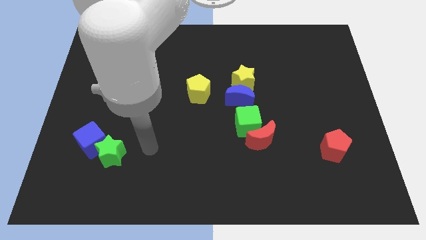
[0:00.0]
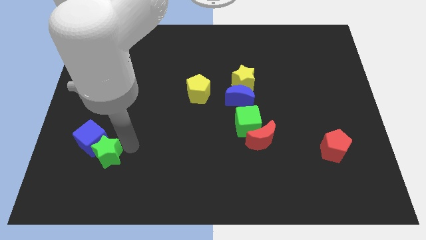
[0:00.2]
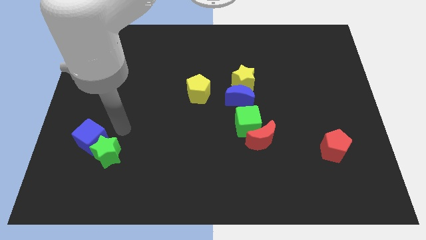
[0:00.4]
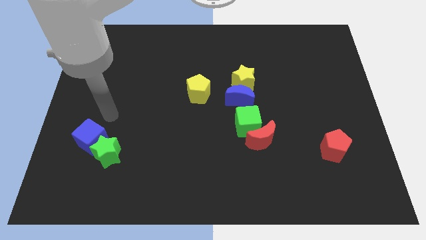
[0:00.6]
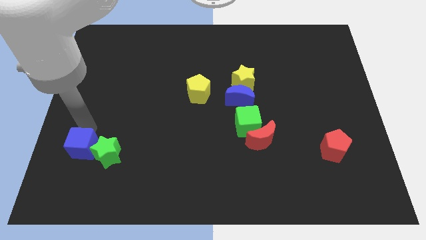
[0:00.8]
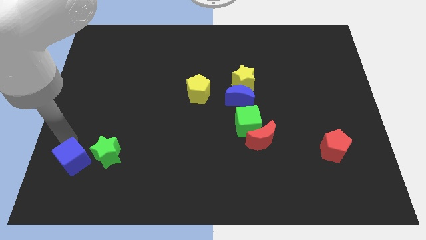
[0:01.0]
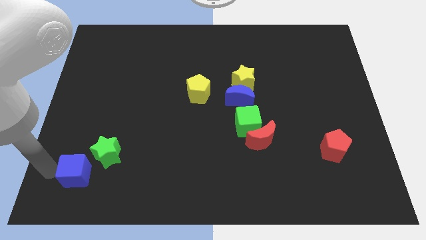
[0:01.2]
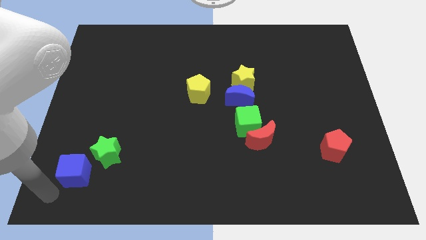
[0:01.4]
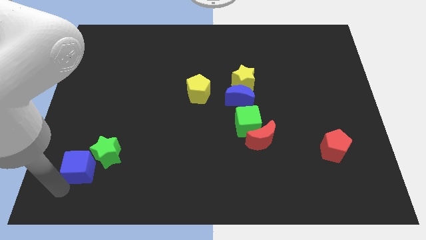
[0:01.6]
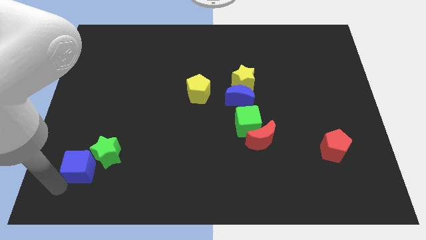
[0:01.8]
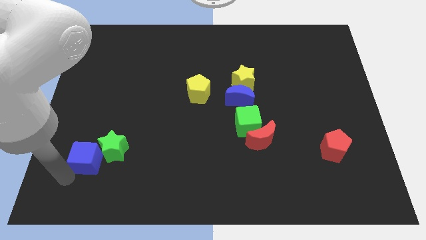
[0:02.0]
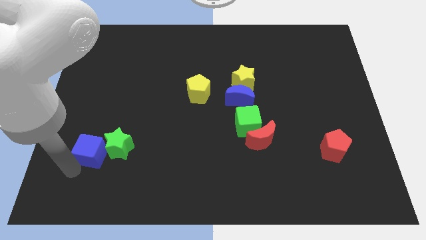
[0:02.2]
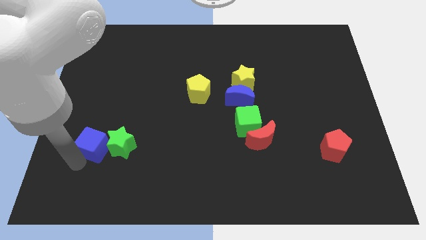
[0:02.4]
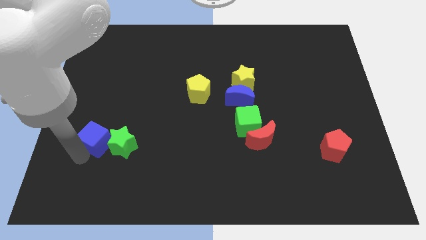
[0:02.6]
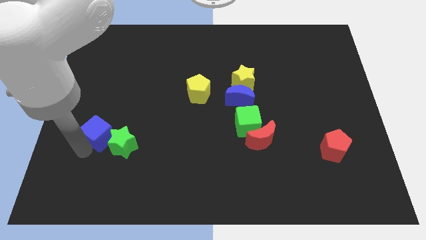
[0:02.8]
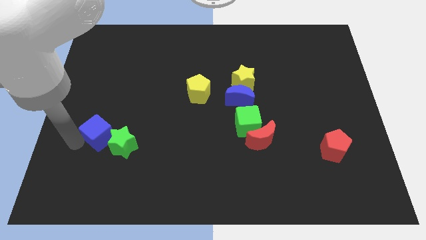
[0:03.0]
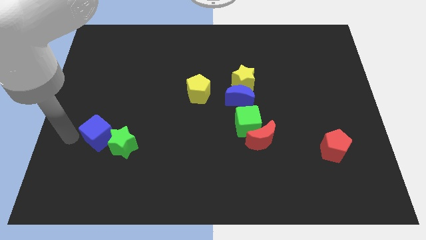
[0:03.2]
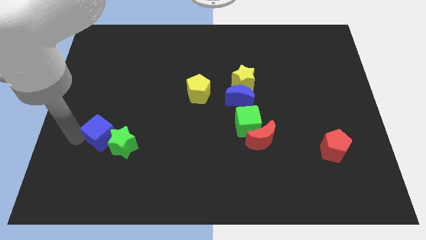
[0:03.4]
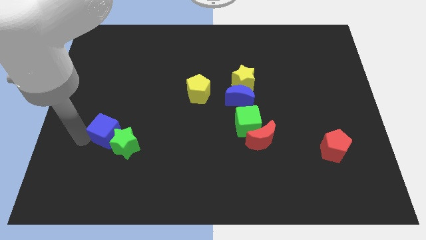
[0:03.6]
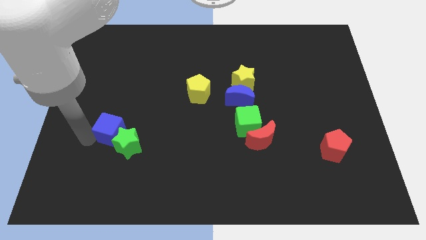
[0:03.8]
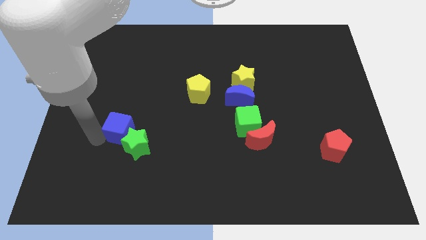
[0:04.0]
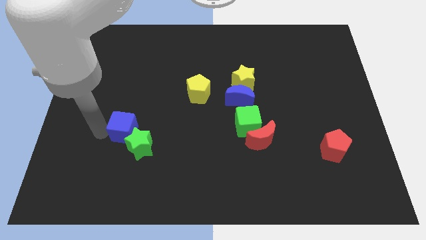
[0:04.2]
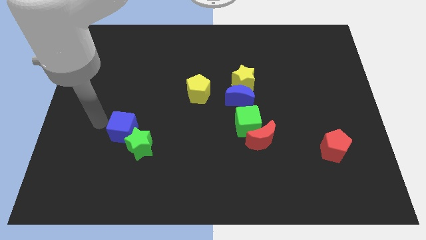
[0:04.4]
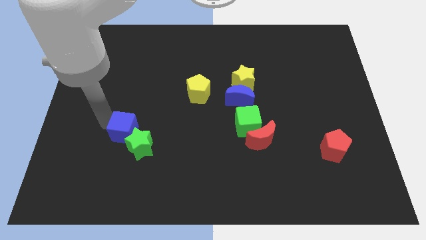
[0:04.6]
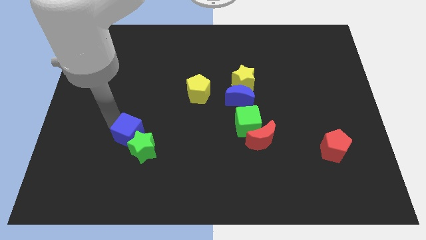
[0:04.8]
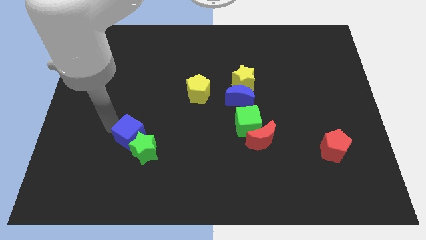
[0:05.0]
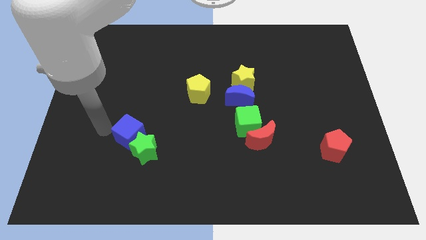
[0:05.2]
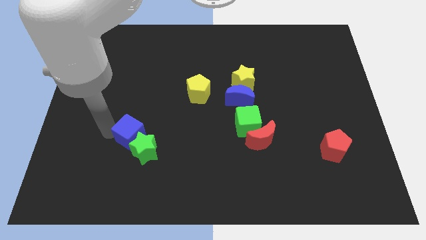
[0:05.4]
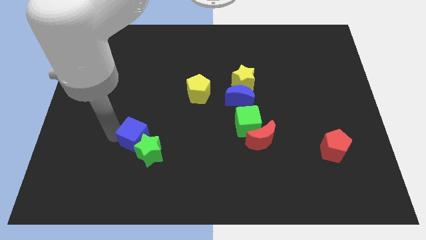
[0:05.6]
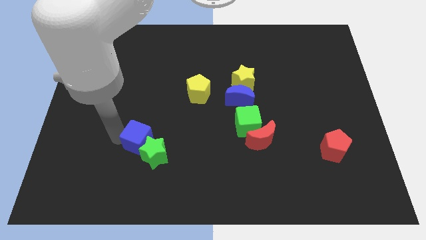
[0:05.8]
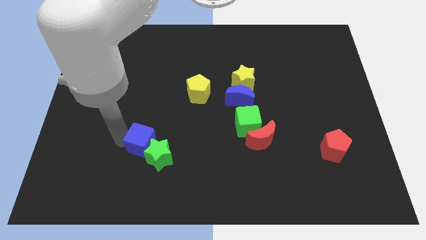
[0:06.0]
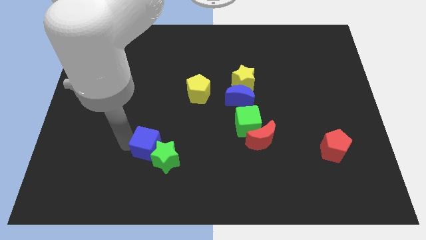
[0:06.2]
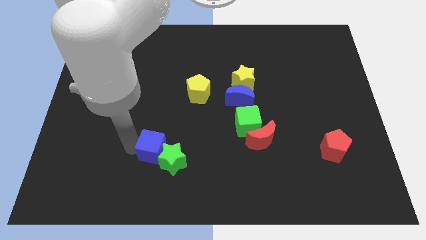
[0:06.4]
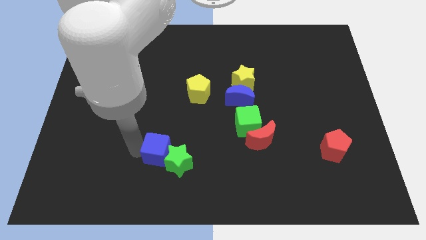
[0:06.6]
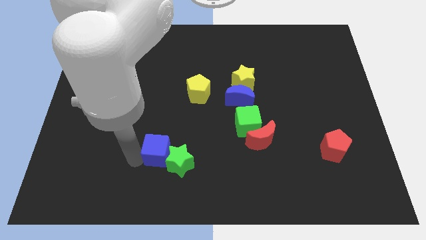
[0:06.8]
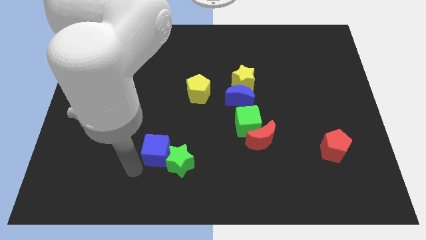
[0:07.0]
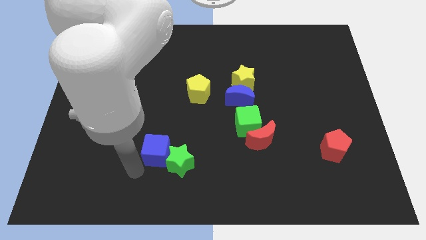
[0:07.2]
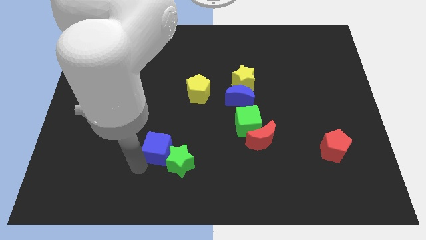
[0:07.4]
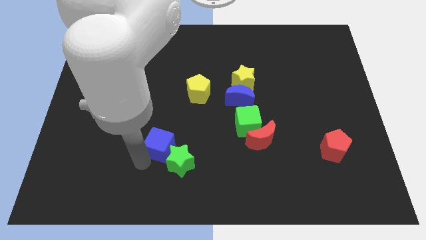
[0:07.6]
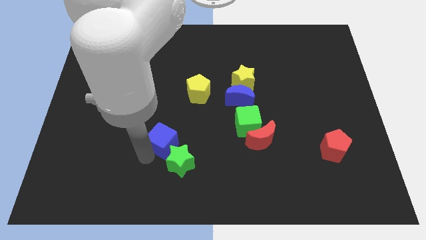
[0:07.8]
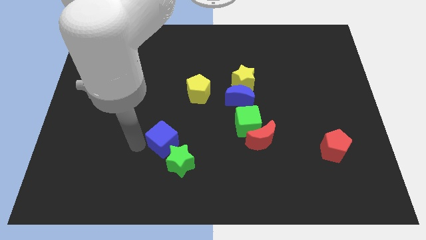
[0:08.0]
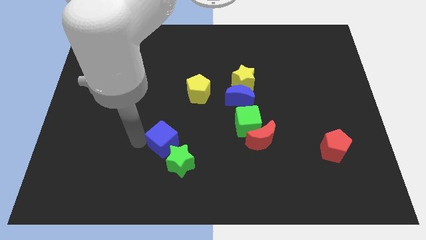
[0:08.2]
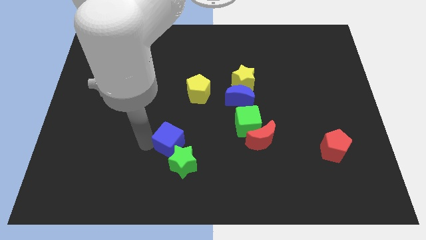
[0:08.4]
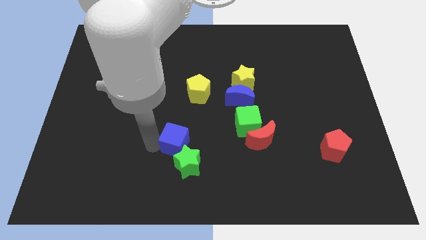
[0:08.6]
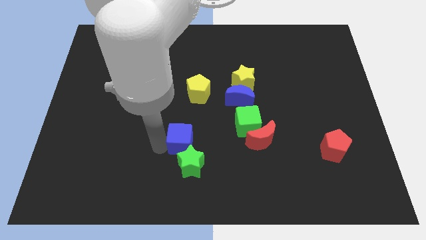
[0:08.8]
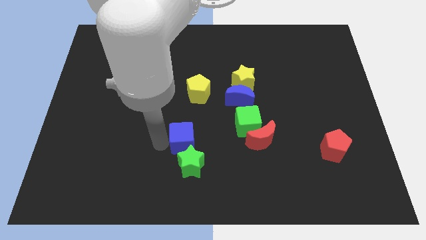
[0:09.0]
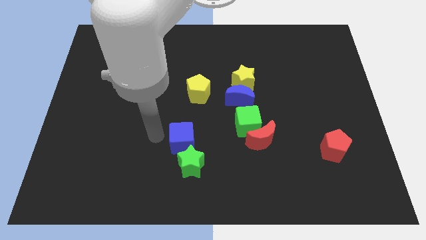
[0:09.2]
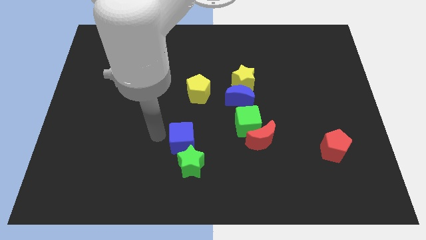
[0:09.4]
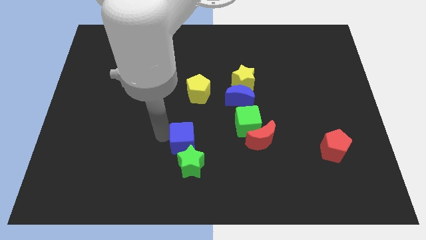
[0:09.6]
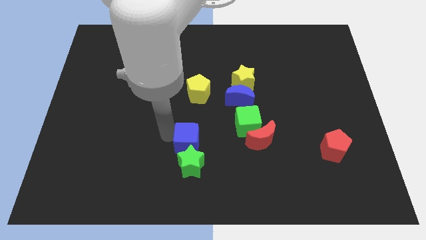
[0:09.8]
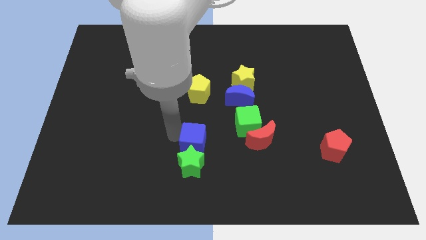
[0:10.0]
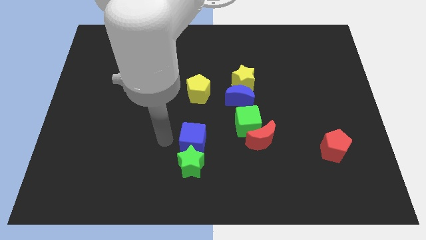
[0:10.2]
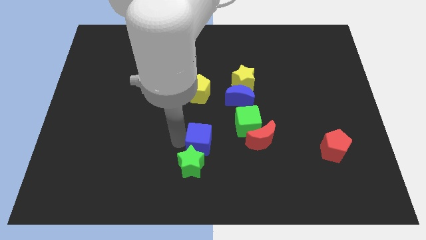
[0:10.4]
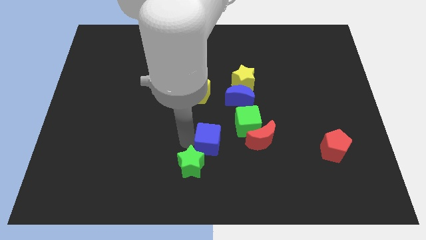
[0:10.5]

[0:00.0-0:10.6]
put the blue cube diagonally down and to the left of the green cube

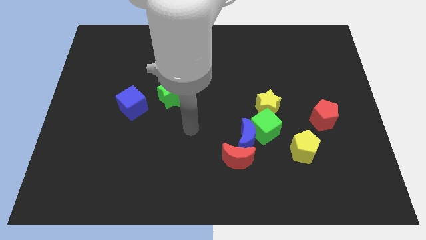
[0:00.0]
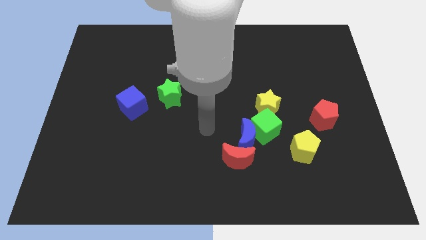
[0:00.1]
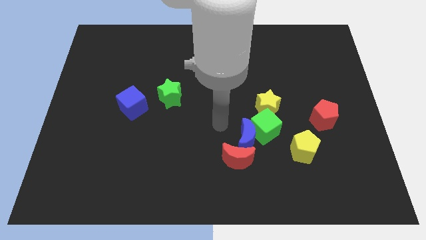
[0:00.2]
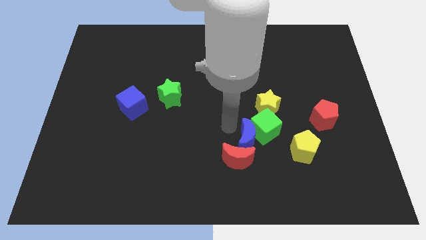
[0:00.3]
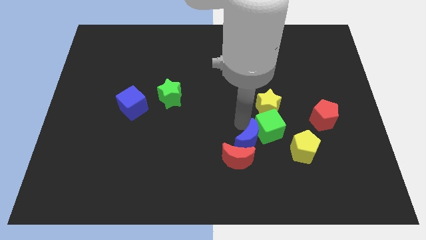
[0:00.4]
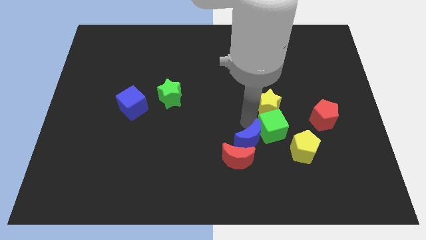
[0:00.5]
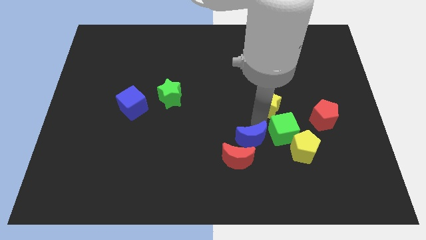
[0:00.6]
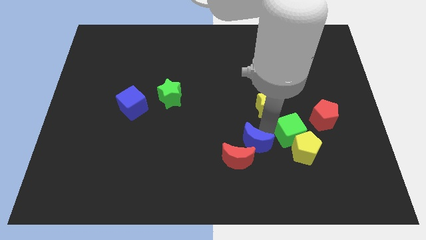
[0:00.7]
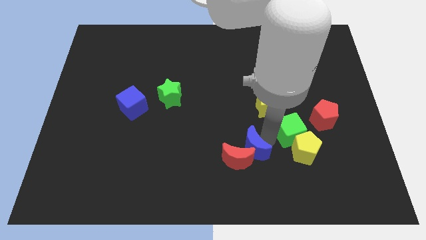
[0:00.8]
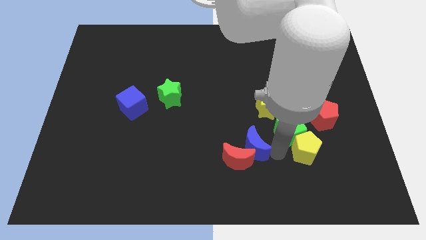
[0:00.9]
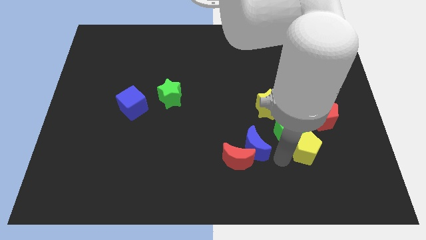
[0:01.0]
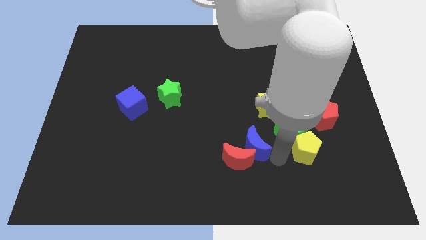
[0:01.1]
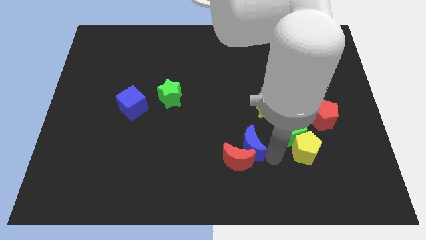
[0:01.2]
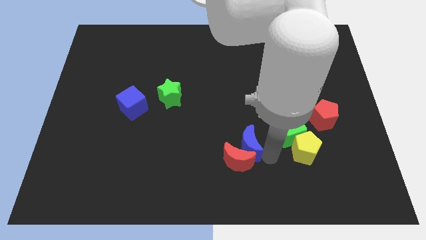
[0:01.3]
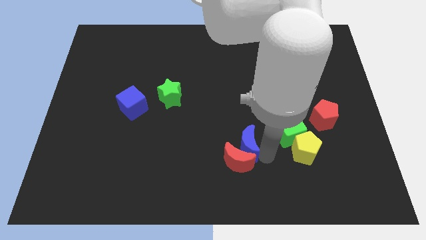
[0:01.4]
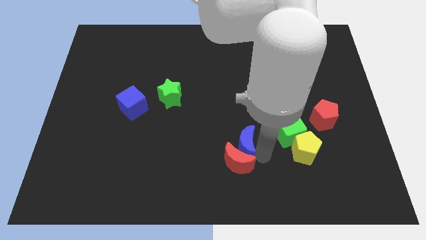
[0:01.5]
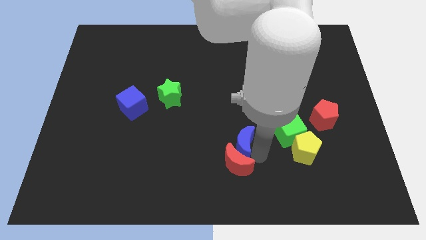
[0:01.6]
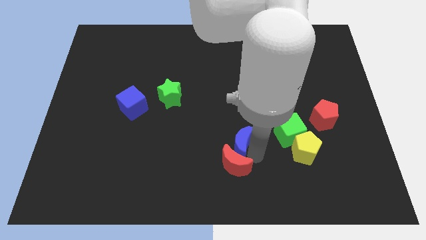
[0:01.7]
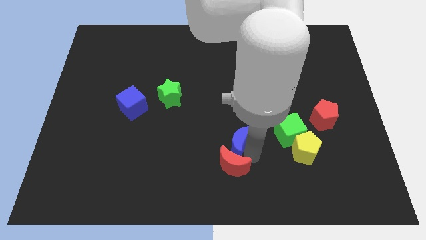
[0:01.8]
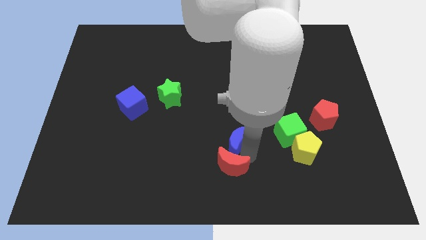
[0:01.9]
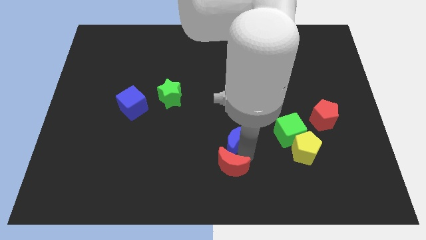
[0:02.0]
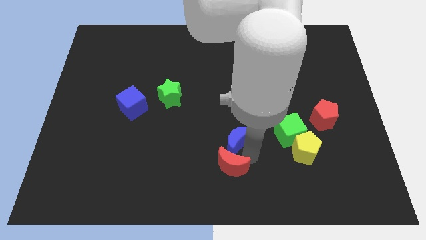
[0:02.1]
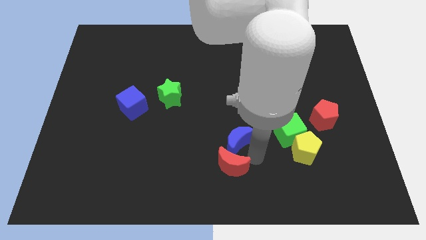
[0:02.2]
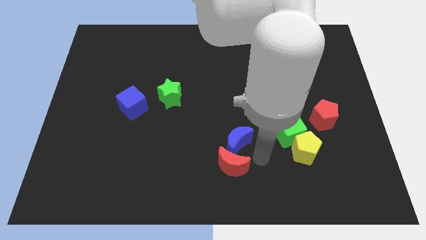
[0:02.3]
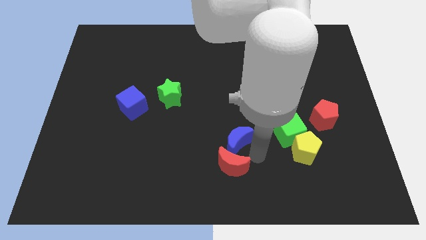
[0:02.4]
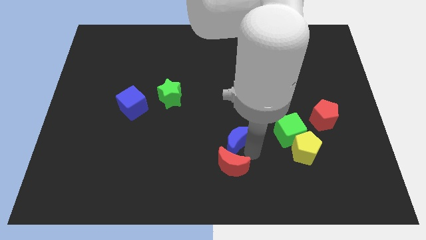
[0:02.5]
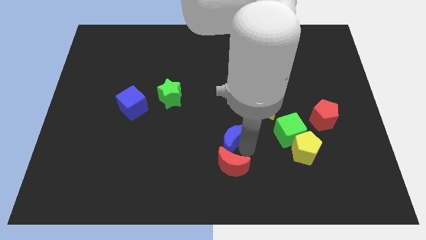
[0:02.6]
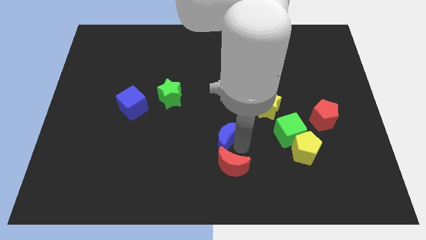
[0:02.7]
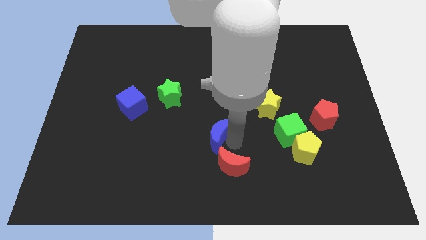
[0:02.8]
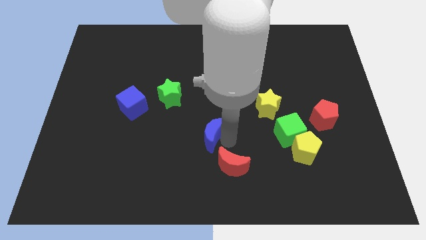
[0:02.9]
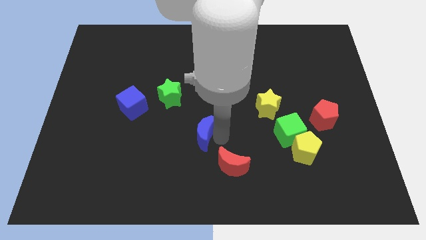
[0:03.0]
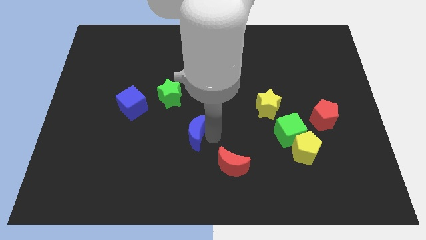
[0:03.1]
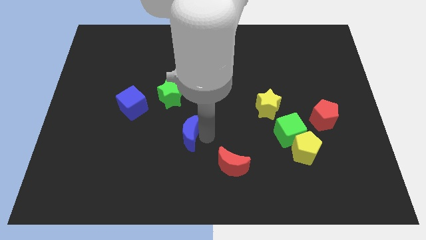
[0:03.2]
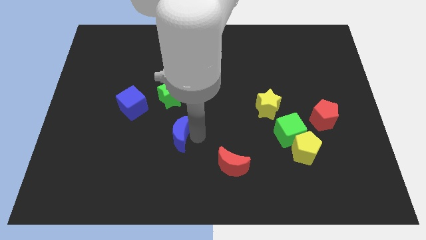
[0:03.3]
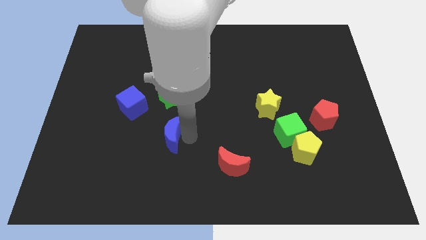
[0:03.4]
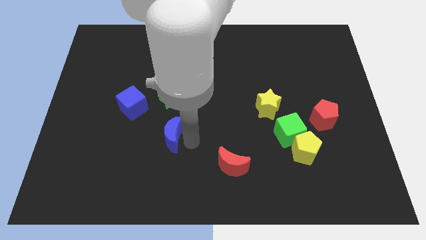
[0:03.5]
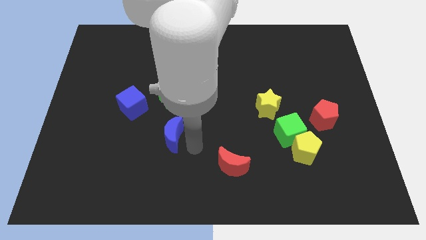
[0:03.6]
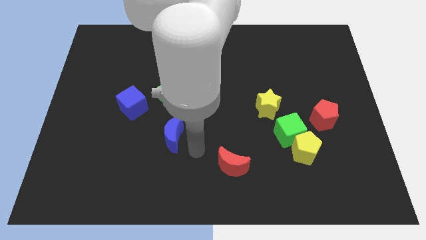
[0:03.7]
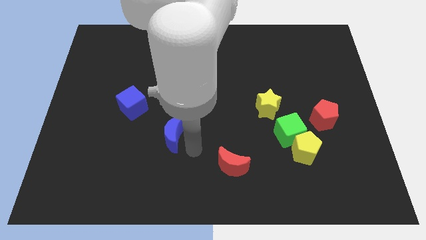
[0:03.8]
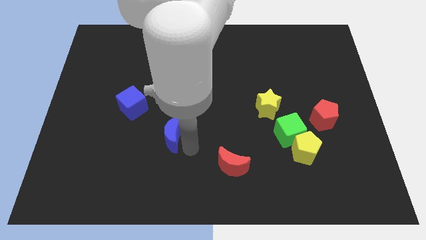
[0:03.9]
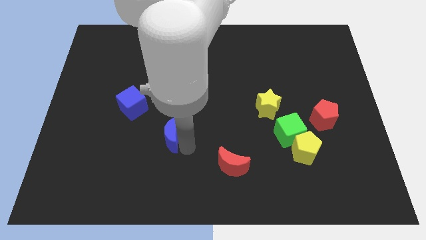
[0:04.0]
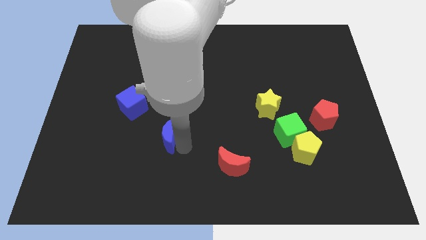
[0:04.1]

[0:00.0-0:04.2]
push the blue moon to the bottom right of the blue cube
